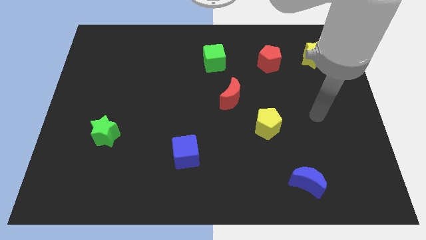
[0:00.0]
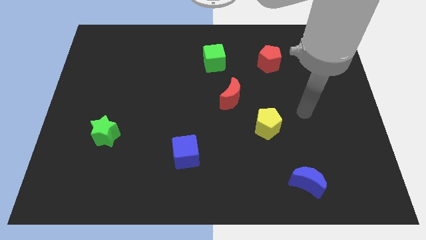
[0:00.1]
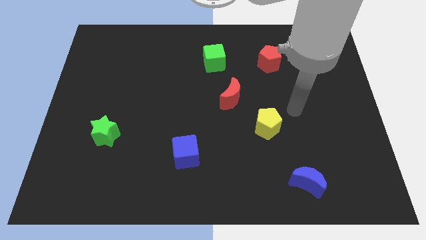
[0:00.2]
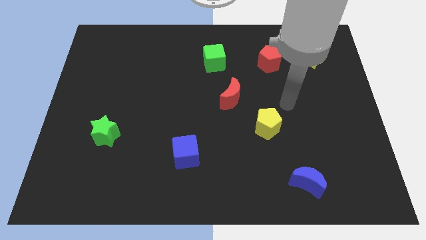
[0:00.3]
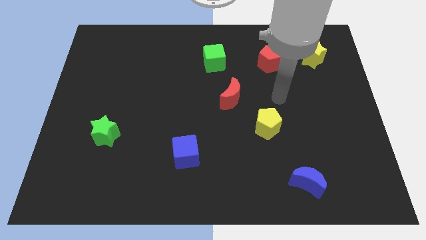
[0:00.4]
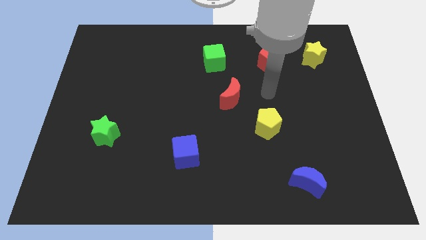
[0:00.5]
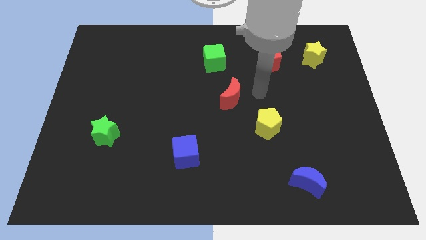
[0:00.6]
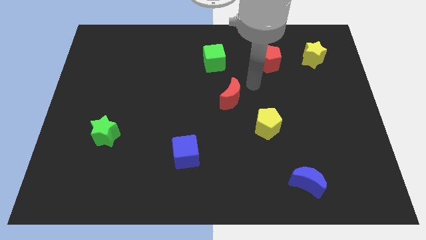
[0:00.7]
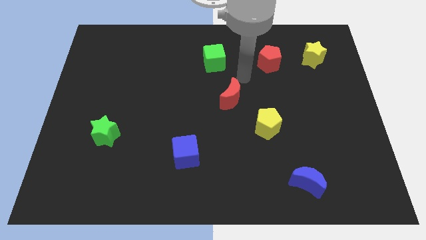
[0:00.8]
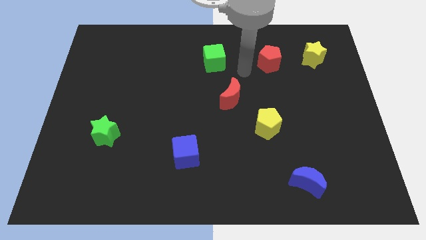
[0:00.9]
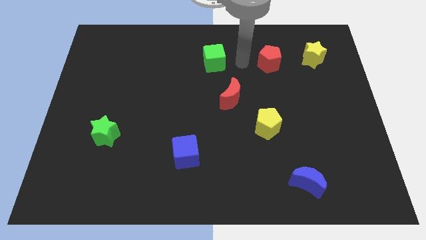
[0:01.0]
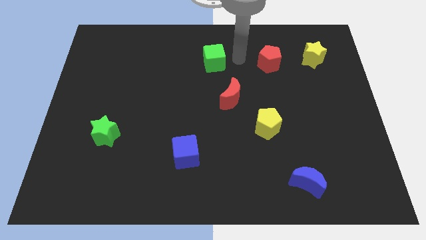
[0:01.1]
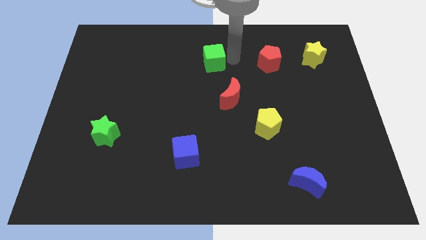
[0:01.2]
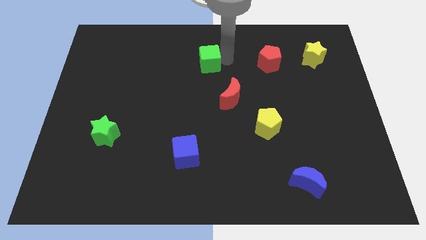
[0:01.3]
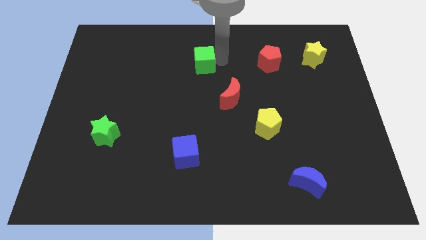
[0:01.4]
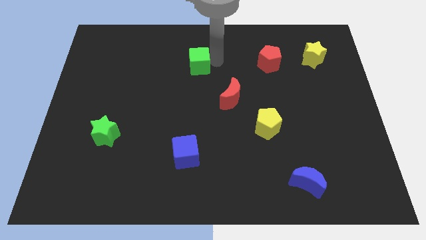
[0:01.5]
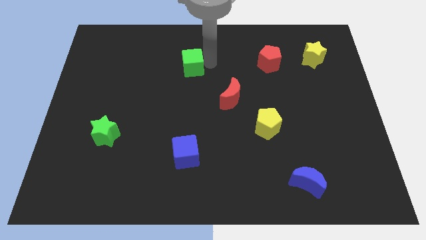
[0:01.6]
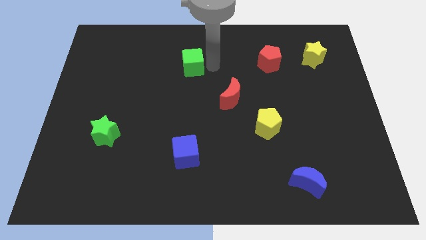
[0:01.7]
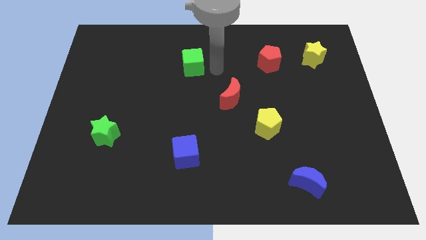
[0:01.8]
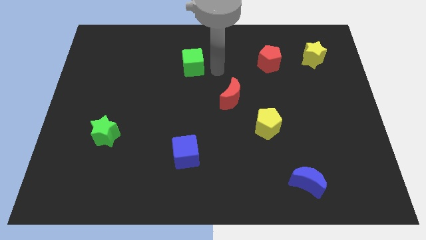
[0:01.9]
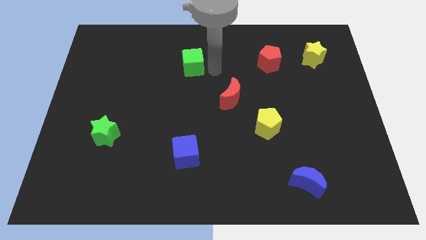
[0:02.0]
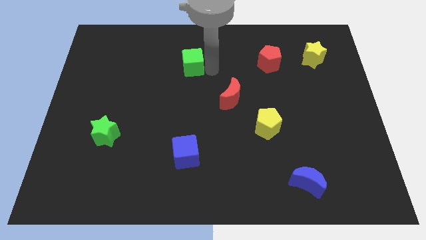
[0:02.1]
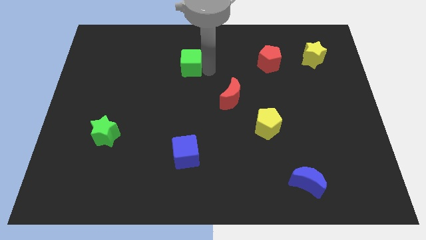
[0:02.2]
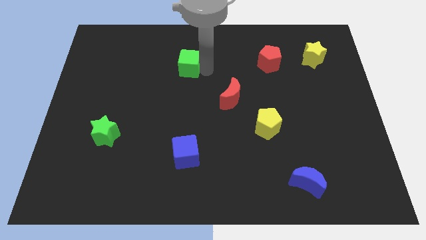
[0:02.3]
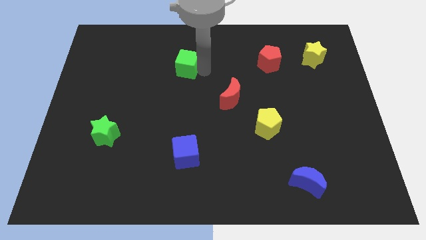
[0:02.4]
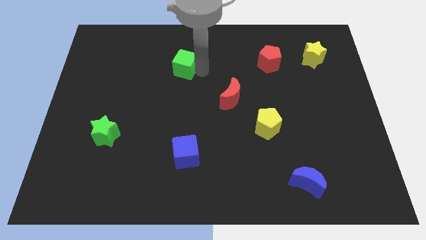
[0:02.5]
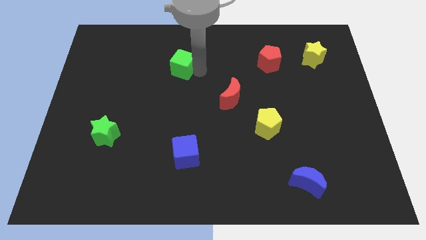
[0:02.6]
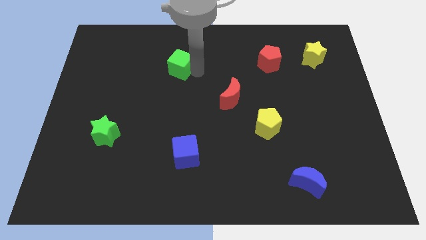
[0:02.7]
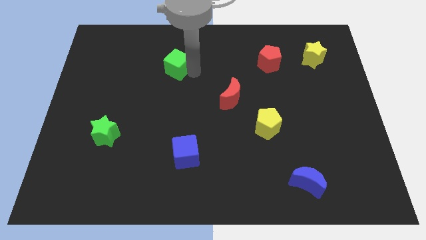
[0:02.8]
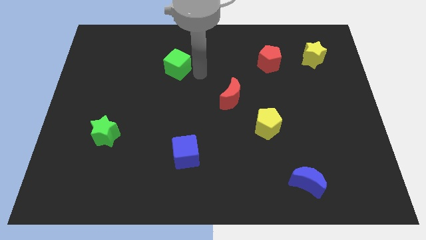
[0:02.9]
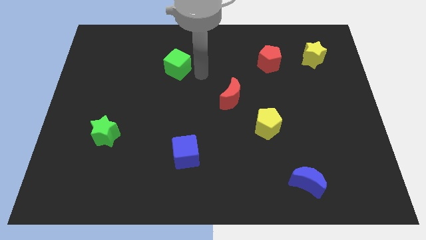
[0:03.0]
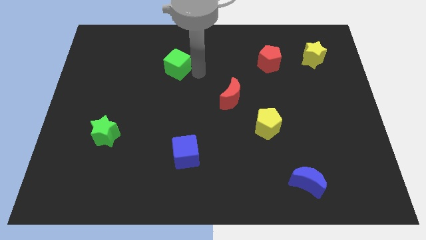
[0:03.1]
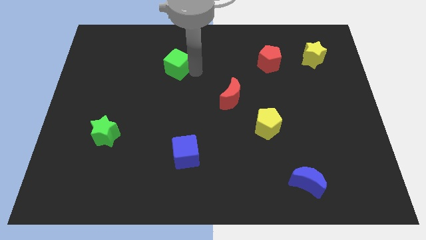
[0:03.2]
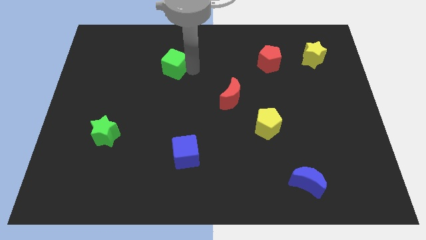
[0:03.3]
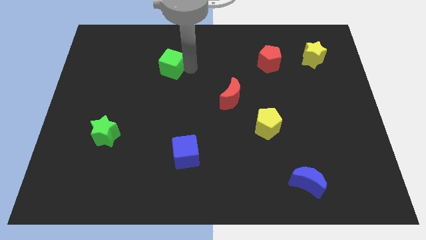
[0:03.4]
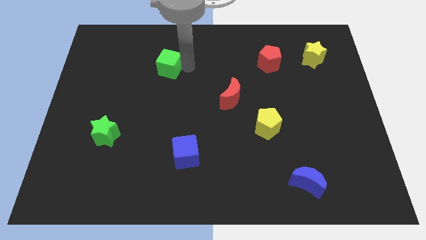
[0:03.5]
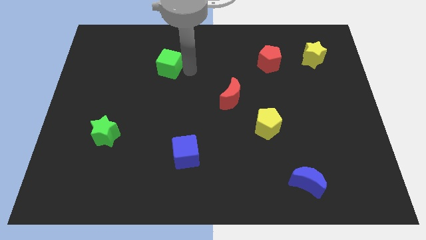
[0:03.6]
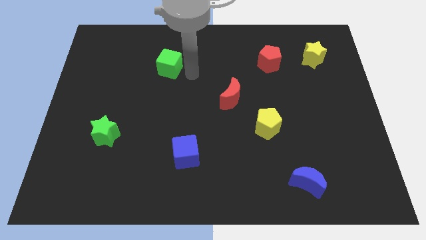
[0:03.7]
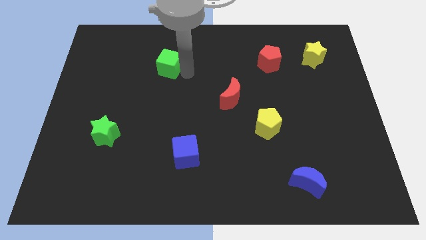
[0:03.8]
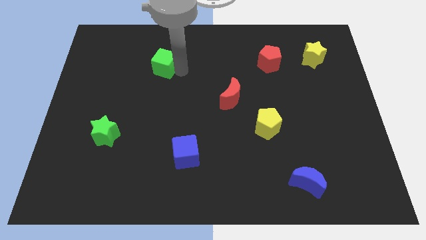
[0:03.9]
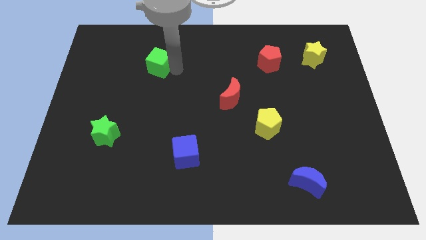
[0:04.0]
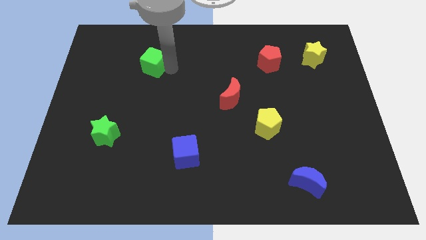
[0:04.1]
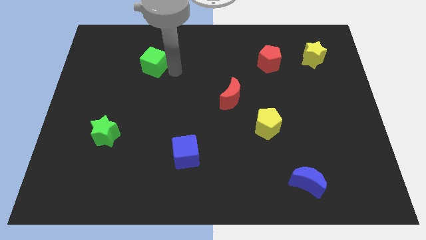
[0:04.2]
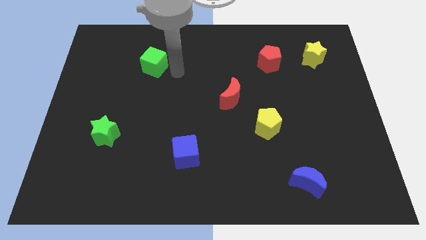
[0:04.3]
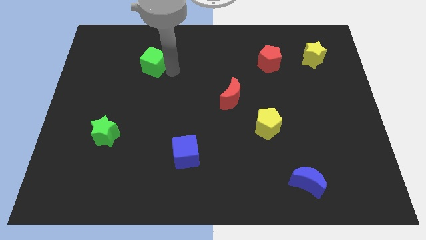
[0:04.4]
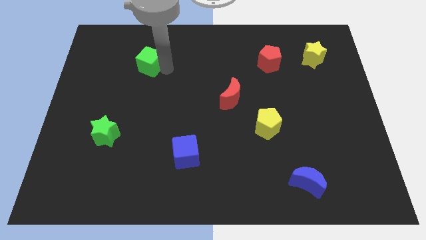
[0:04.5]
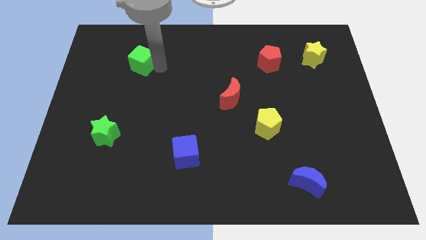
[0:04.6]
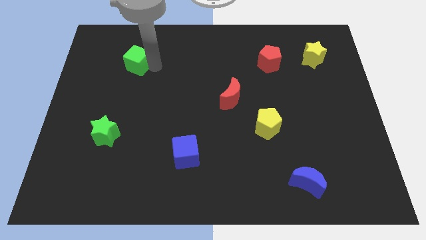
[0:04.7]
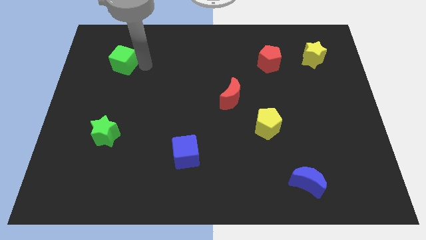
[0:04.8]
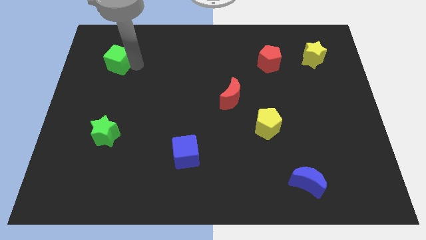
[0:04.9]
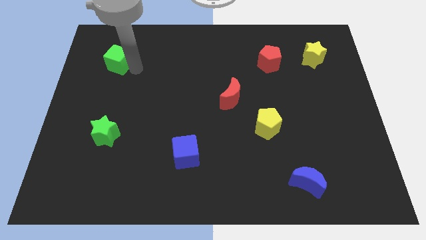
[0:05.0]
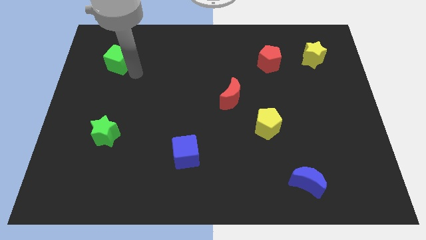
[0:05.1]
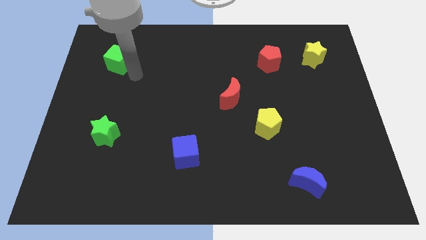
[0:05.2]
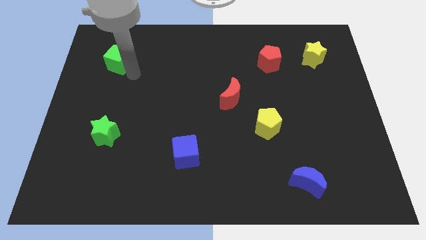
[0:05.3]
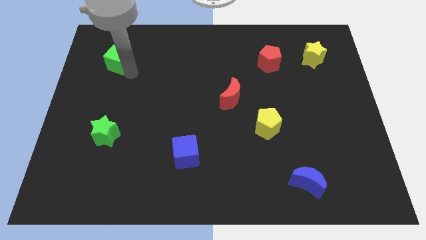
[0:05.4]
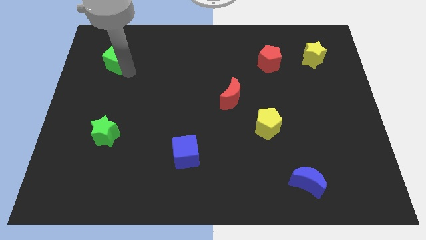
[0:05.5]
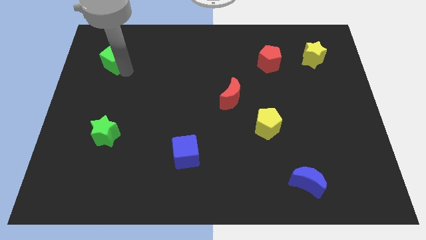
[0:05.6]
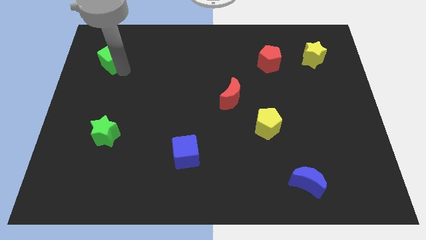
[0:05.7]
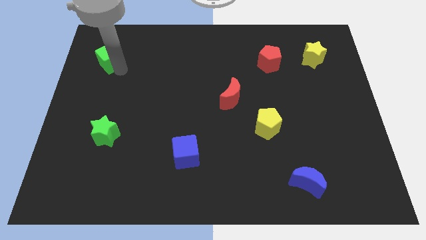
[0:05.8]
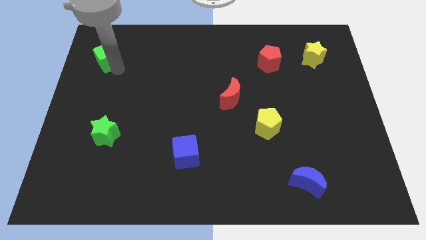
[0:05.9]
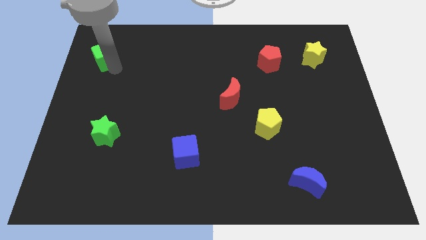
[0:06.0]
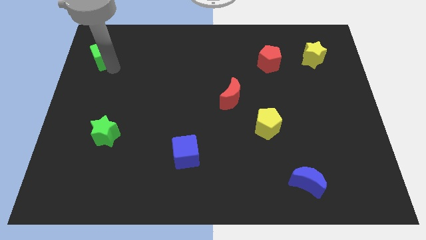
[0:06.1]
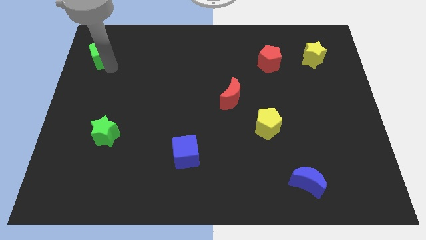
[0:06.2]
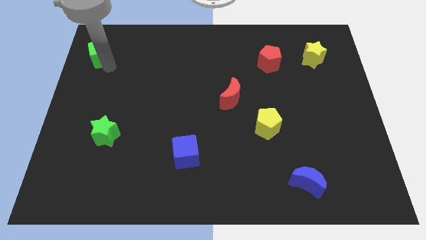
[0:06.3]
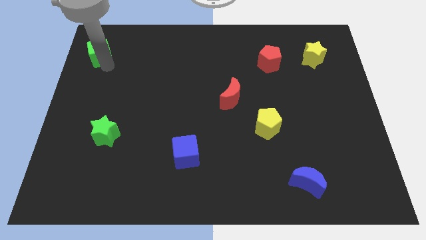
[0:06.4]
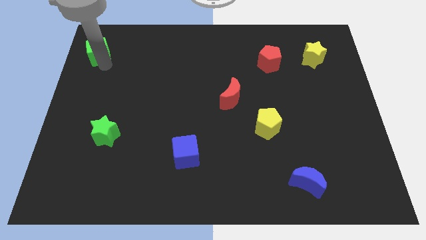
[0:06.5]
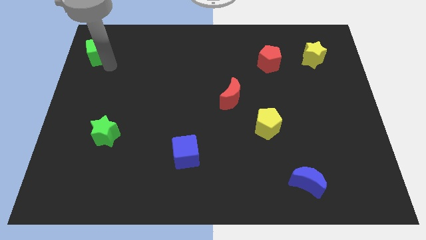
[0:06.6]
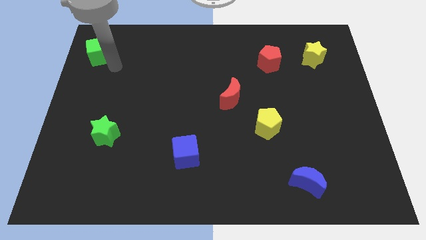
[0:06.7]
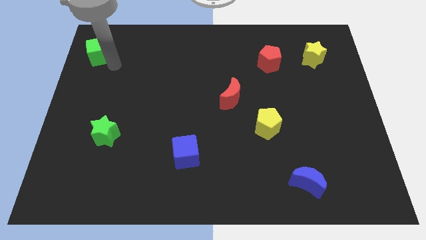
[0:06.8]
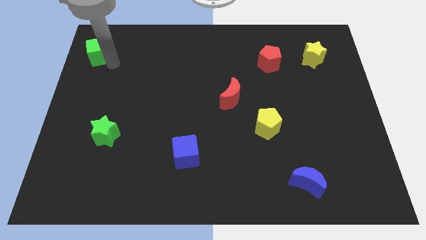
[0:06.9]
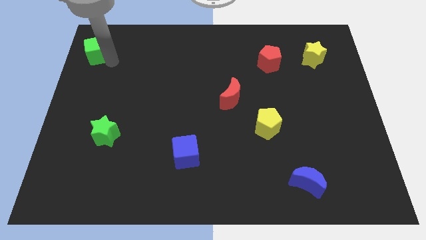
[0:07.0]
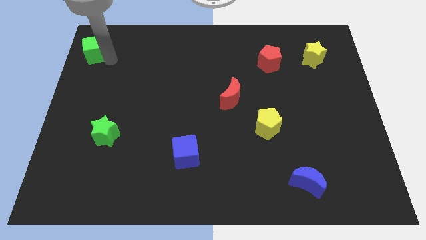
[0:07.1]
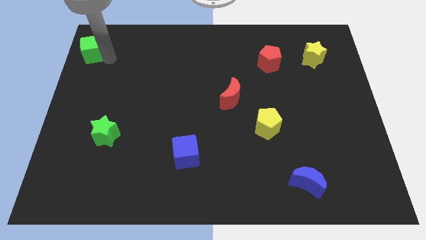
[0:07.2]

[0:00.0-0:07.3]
push the green cube to the top left corner
